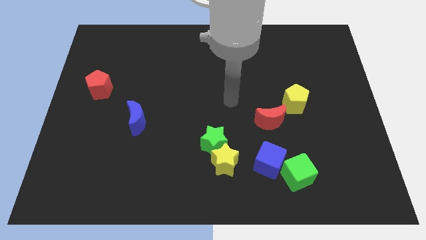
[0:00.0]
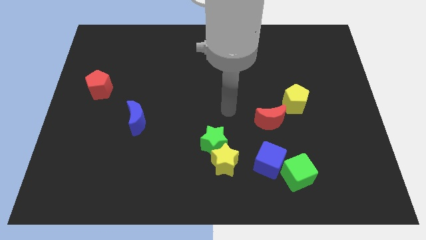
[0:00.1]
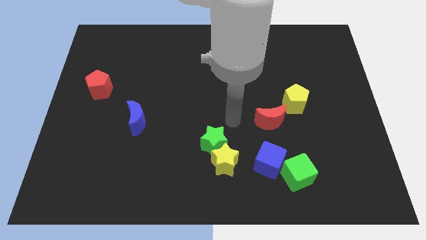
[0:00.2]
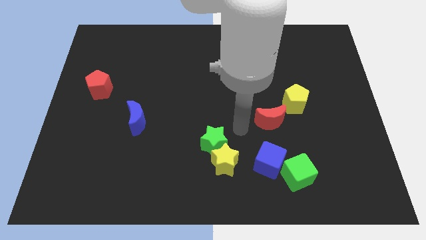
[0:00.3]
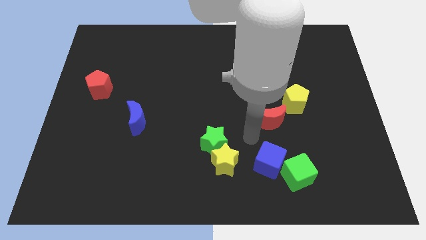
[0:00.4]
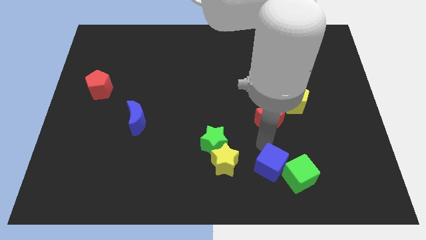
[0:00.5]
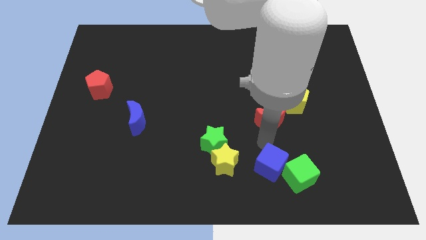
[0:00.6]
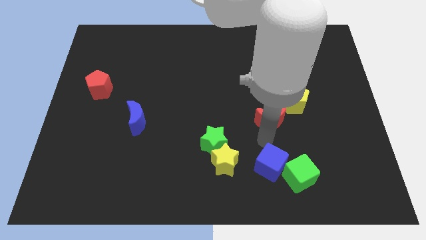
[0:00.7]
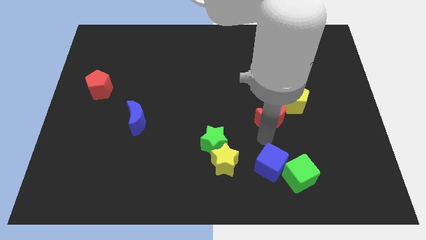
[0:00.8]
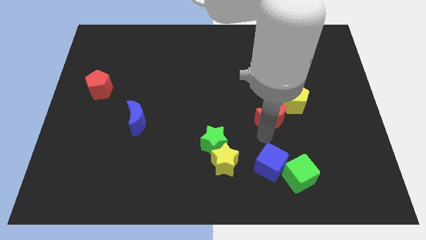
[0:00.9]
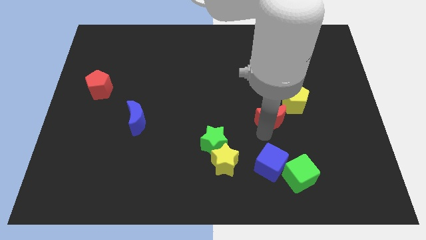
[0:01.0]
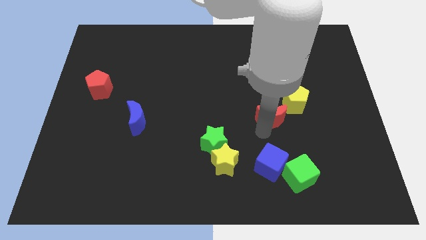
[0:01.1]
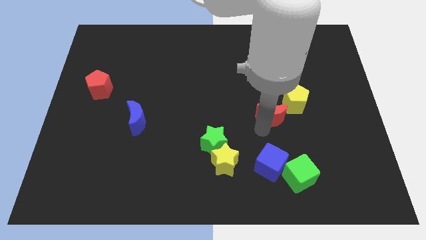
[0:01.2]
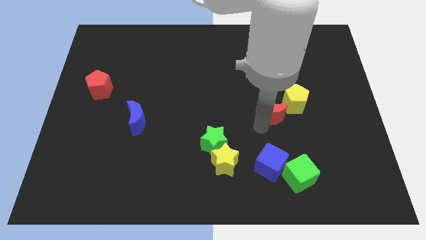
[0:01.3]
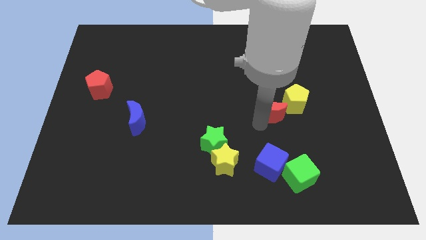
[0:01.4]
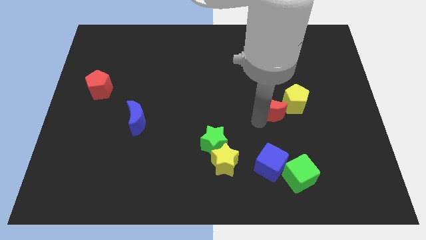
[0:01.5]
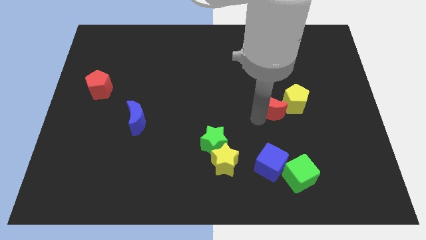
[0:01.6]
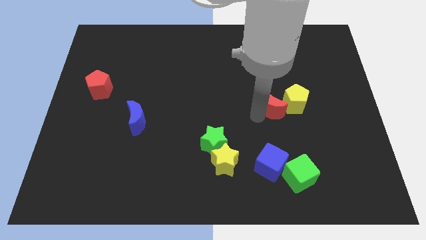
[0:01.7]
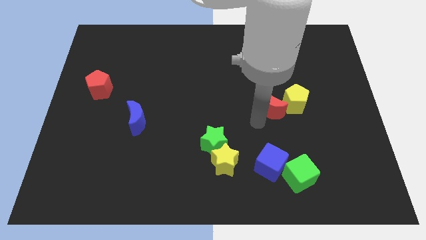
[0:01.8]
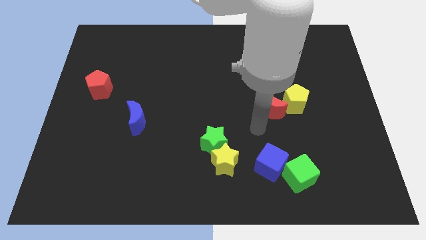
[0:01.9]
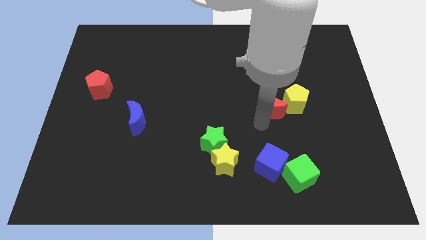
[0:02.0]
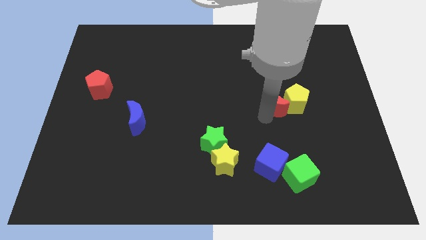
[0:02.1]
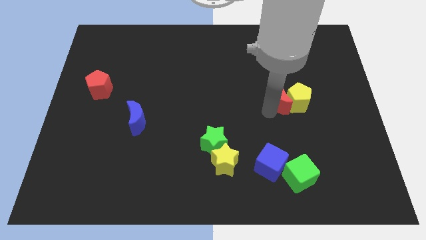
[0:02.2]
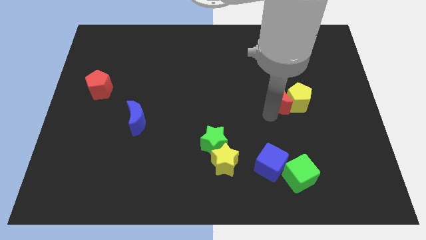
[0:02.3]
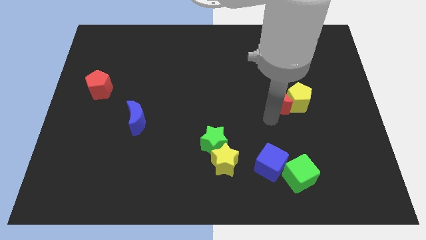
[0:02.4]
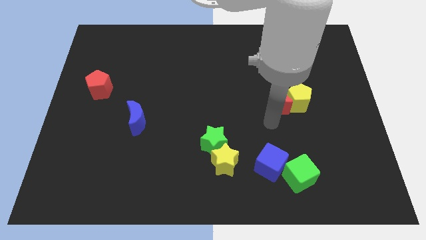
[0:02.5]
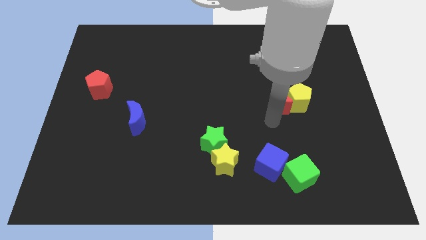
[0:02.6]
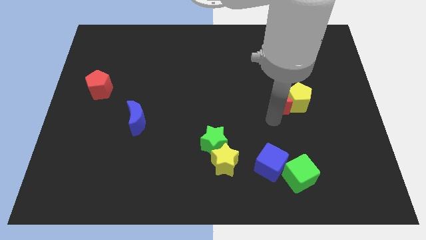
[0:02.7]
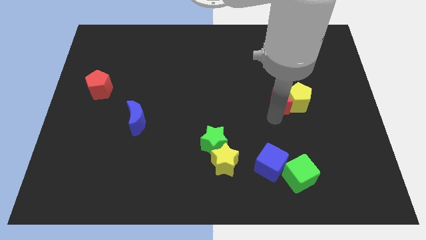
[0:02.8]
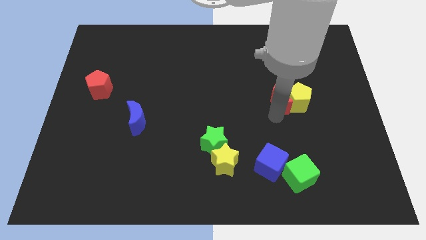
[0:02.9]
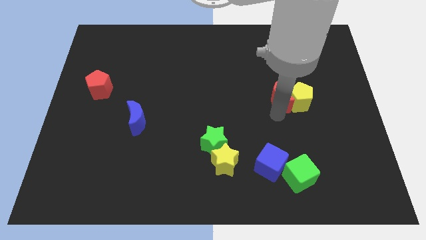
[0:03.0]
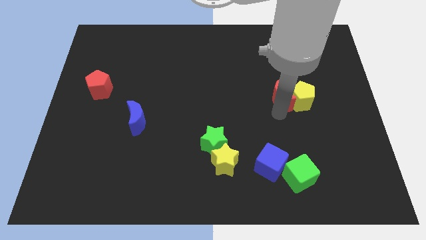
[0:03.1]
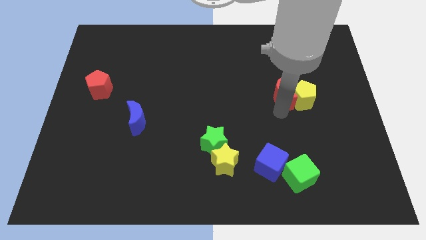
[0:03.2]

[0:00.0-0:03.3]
slightly slide the red moon up and to the right diagonally

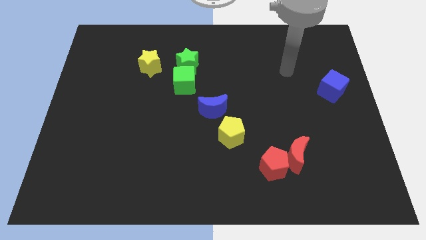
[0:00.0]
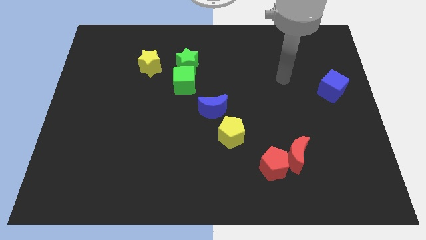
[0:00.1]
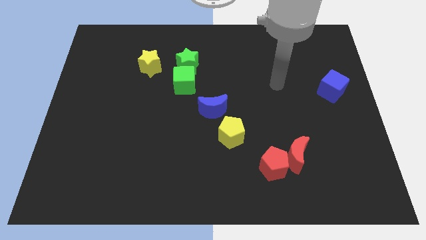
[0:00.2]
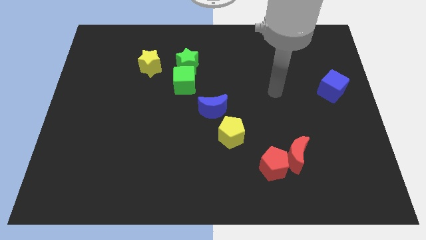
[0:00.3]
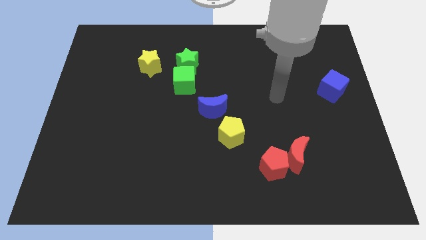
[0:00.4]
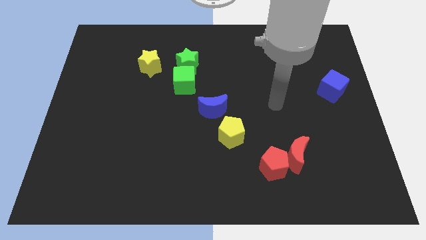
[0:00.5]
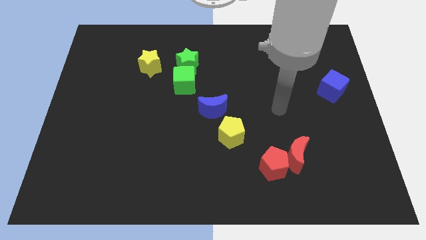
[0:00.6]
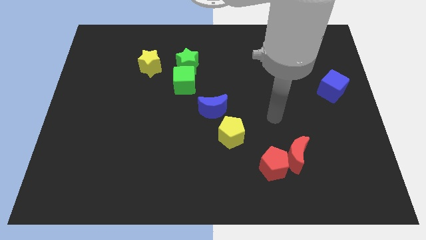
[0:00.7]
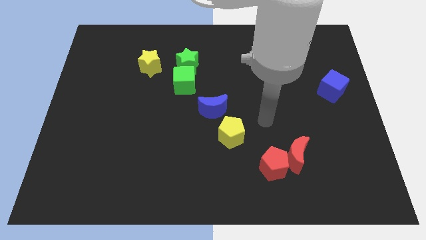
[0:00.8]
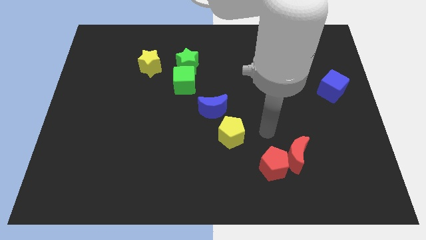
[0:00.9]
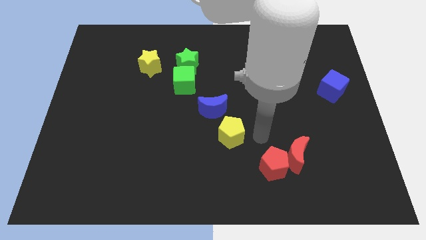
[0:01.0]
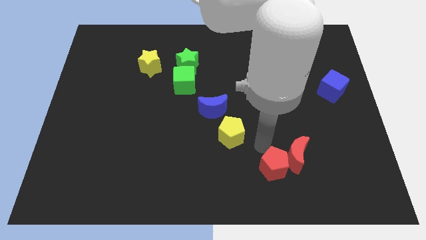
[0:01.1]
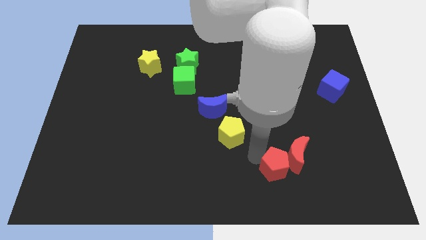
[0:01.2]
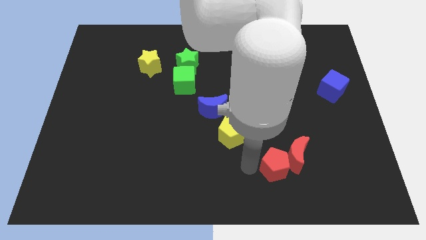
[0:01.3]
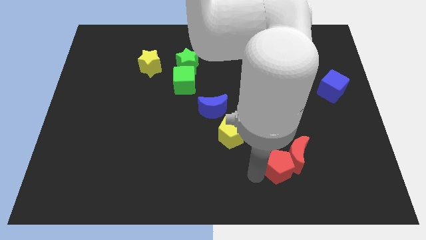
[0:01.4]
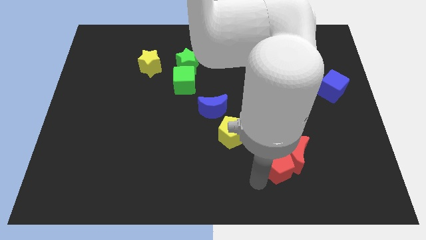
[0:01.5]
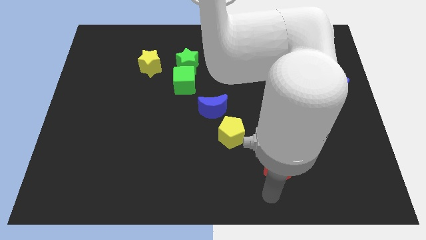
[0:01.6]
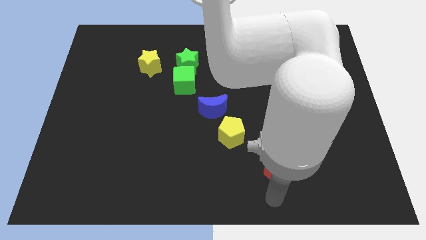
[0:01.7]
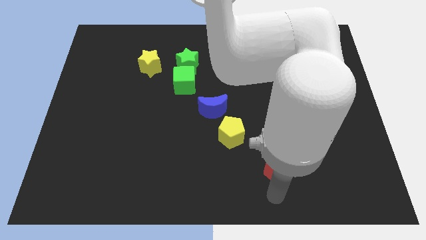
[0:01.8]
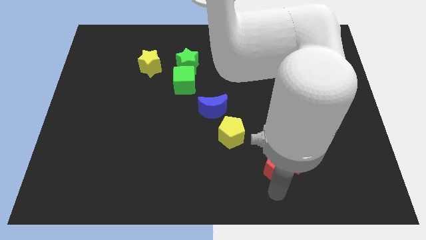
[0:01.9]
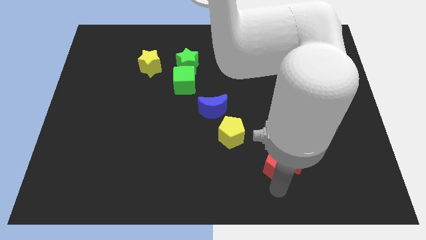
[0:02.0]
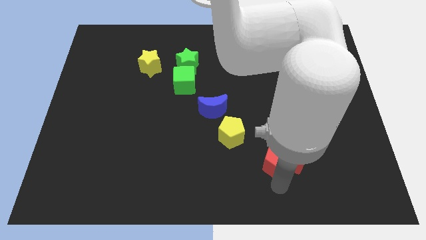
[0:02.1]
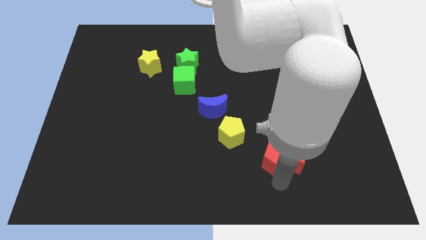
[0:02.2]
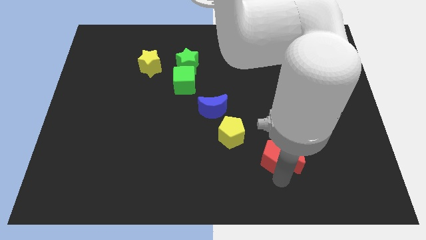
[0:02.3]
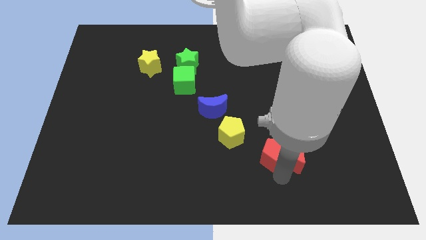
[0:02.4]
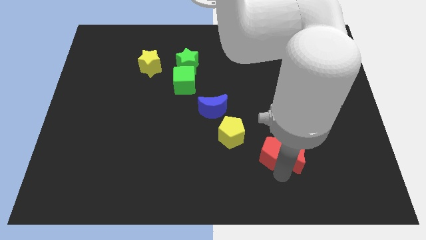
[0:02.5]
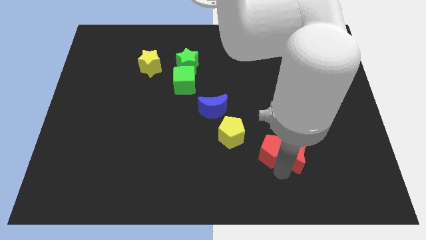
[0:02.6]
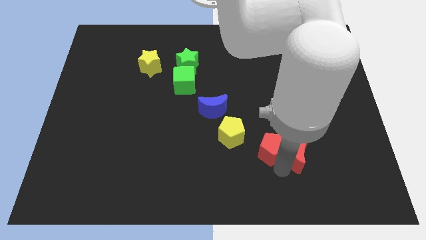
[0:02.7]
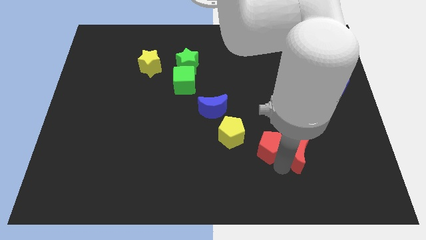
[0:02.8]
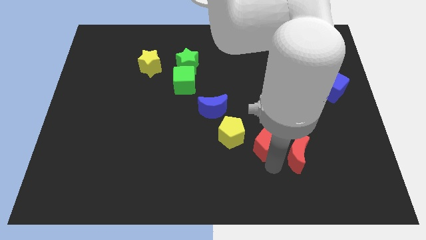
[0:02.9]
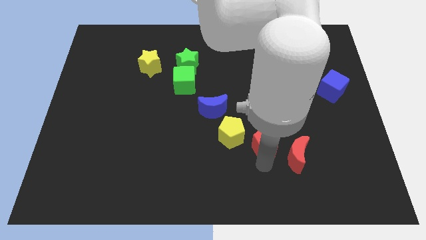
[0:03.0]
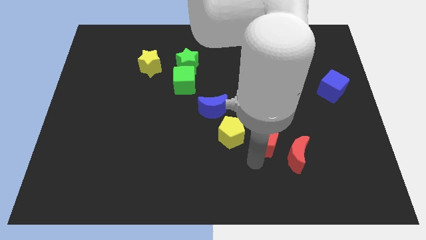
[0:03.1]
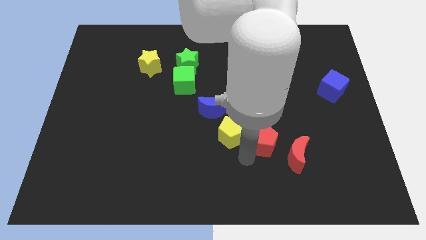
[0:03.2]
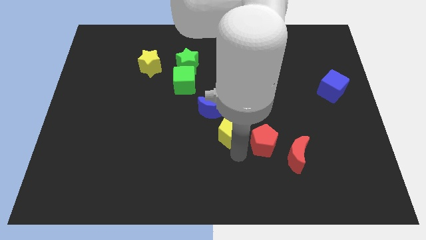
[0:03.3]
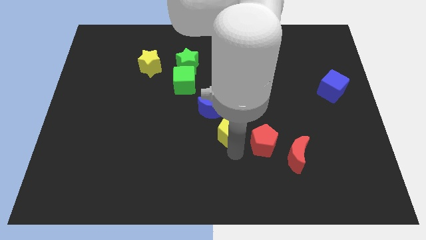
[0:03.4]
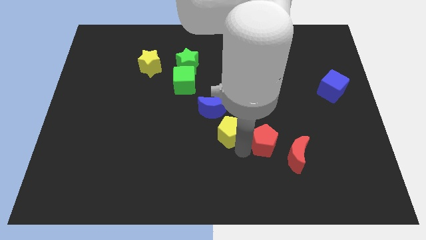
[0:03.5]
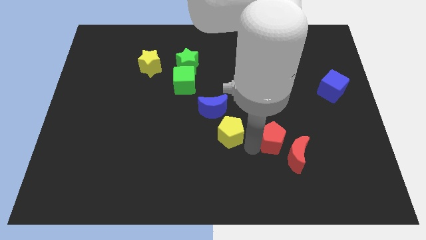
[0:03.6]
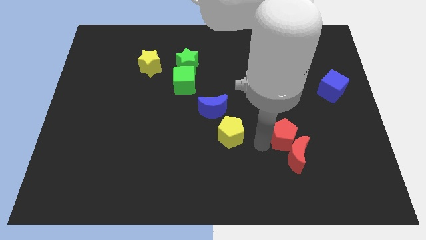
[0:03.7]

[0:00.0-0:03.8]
slide the red pentagon slightly diagonally up and to the right

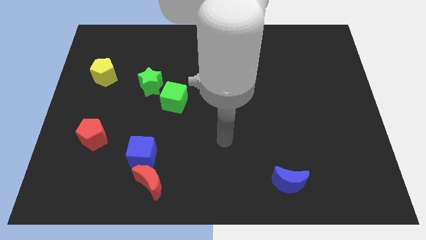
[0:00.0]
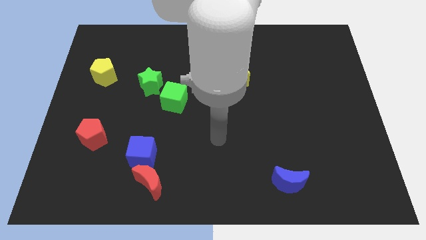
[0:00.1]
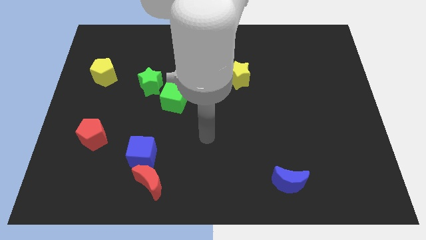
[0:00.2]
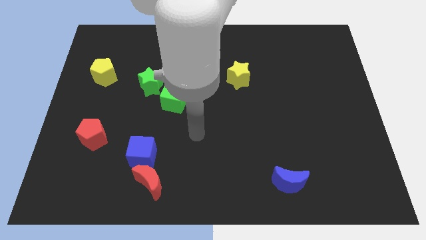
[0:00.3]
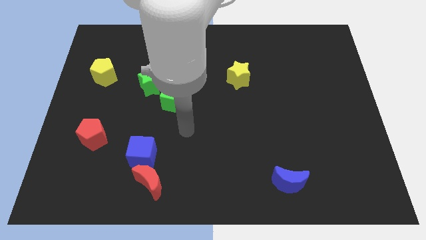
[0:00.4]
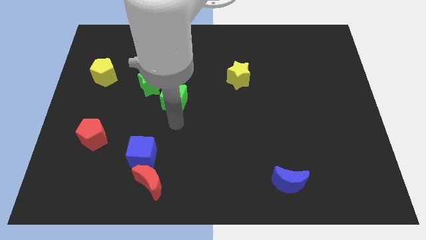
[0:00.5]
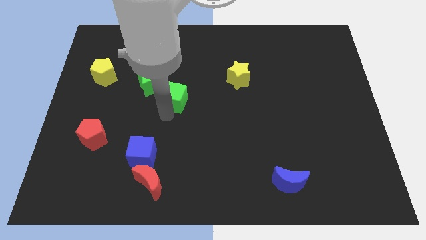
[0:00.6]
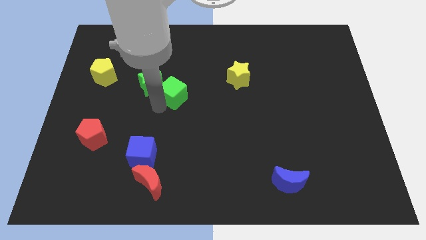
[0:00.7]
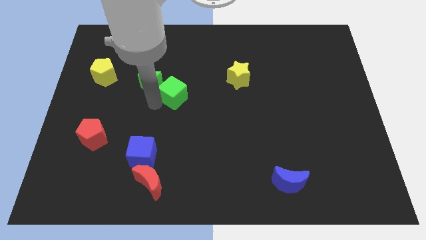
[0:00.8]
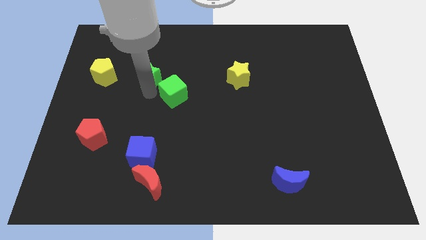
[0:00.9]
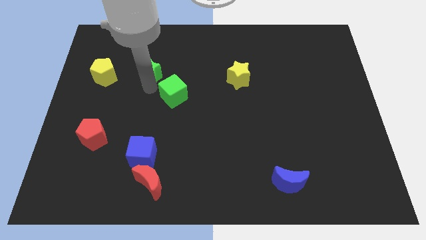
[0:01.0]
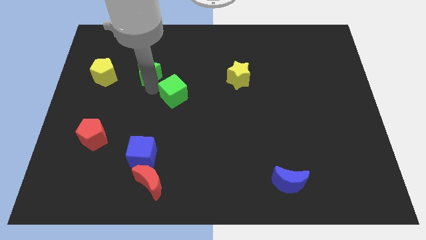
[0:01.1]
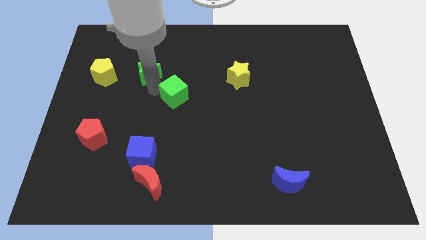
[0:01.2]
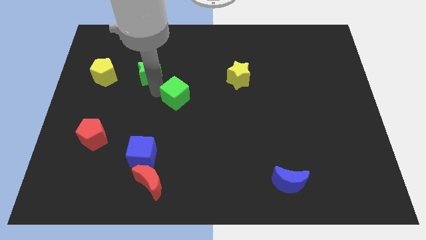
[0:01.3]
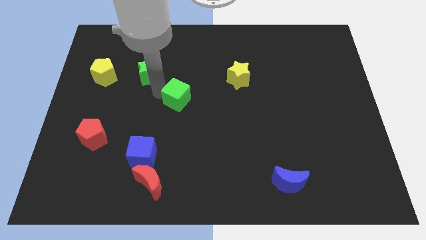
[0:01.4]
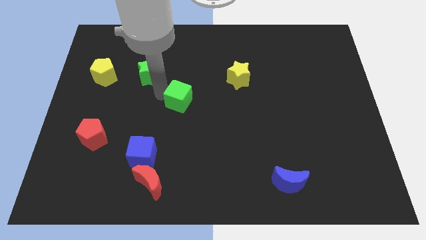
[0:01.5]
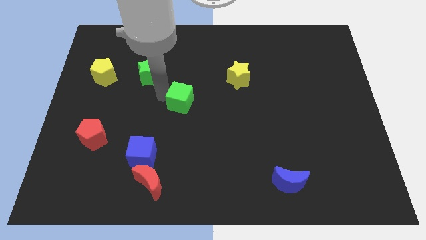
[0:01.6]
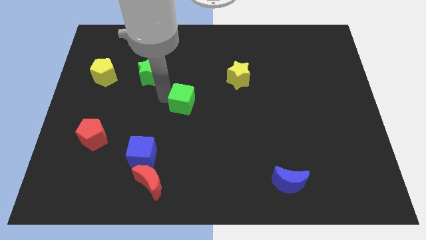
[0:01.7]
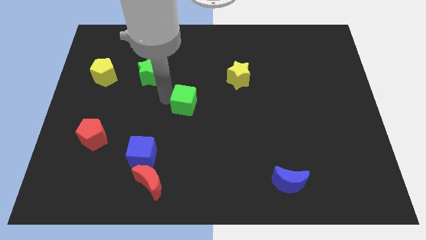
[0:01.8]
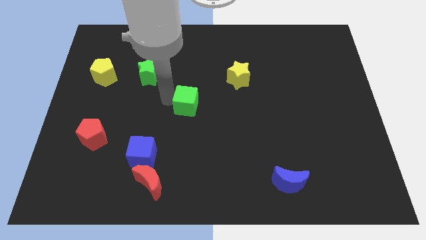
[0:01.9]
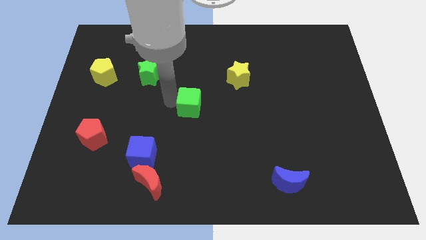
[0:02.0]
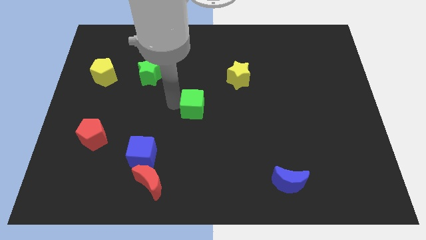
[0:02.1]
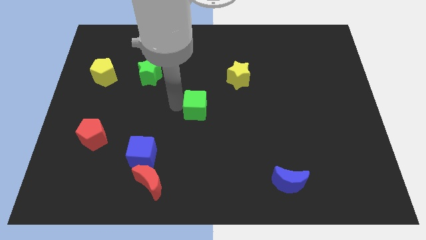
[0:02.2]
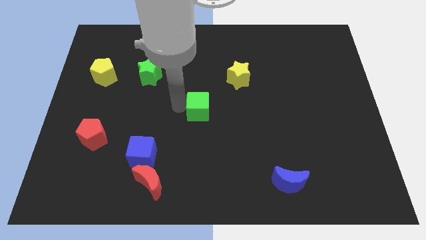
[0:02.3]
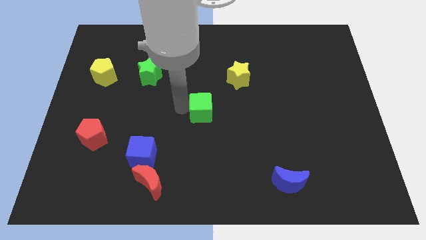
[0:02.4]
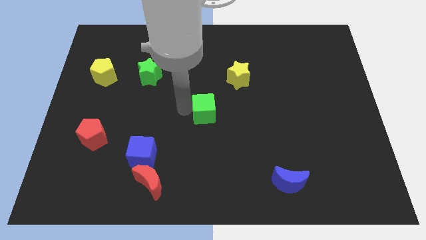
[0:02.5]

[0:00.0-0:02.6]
slightly move the green cube right
